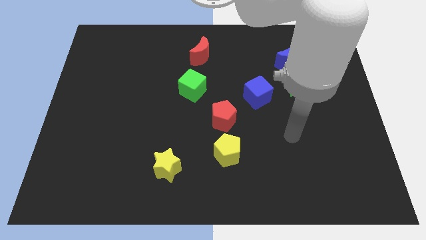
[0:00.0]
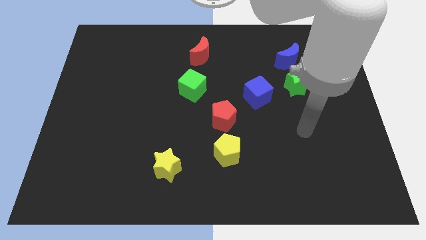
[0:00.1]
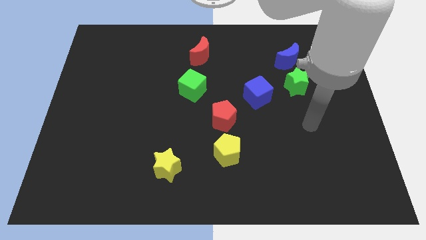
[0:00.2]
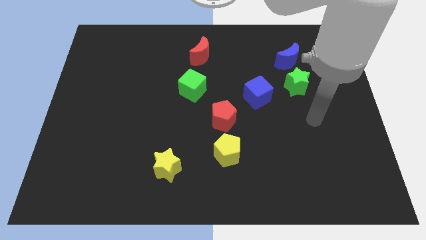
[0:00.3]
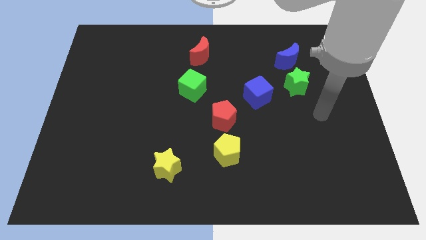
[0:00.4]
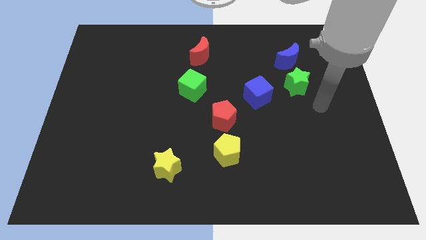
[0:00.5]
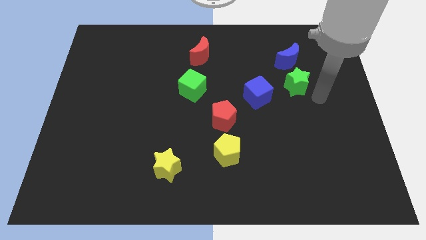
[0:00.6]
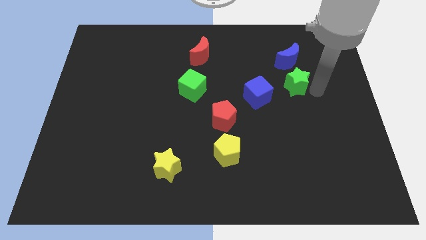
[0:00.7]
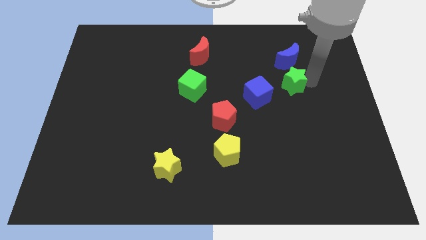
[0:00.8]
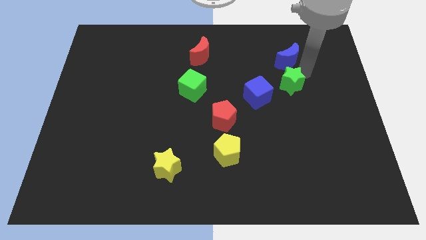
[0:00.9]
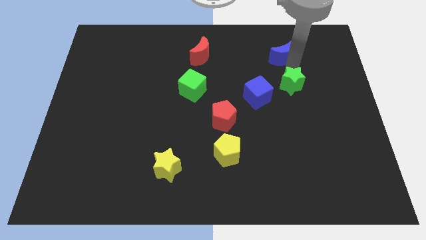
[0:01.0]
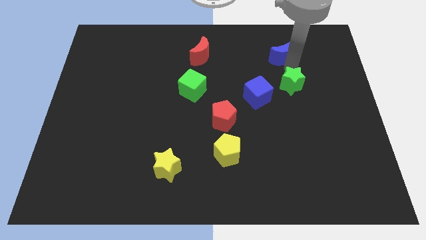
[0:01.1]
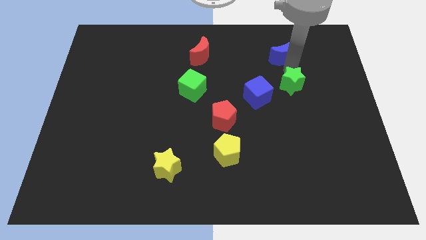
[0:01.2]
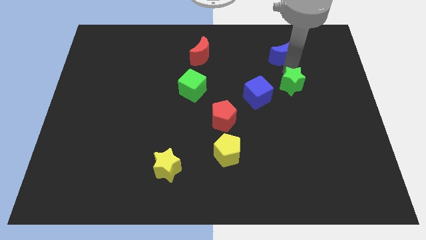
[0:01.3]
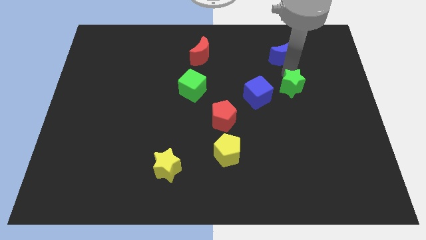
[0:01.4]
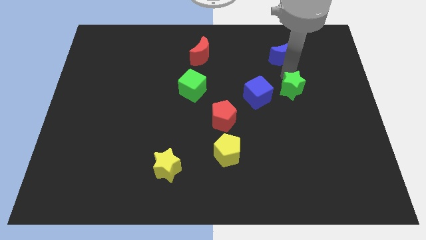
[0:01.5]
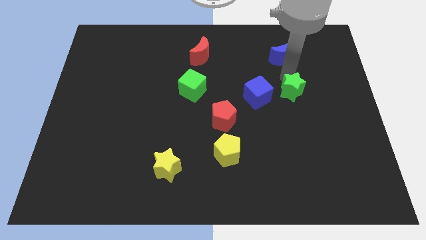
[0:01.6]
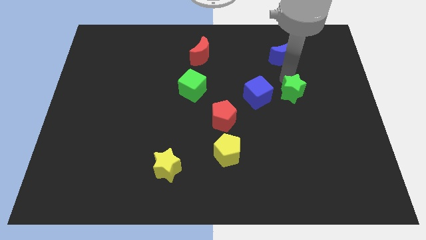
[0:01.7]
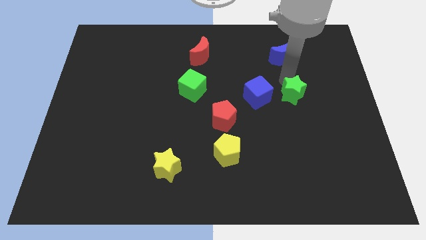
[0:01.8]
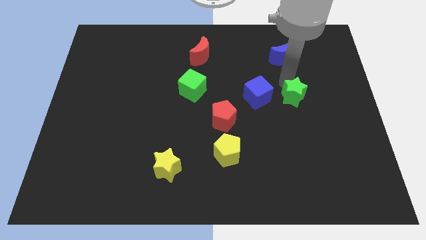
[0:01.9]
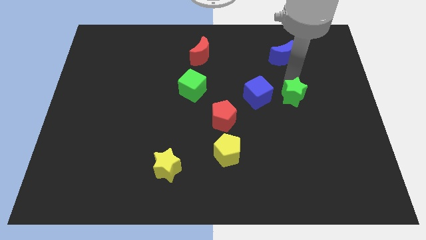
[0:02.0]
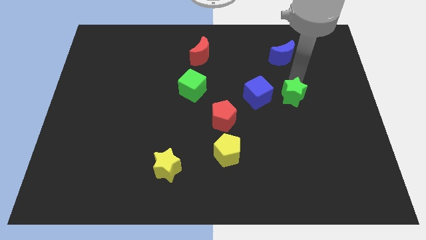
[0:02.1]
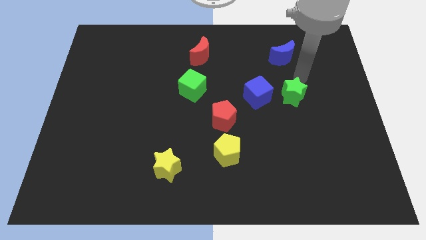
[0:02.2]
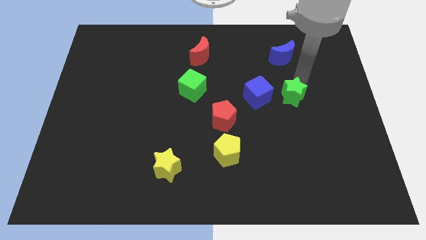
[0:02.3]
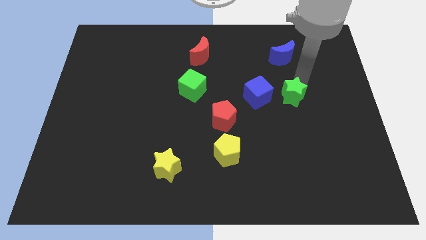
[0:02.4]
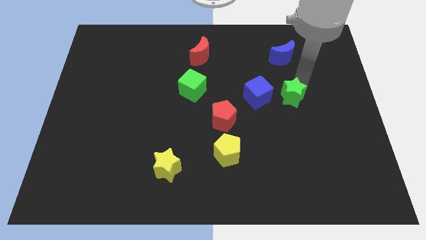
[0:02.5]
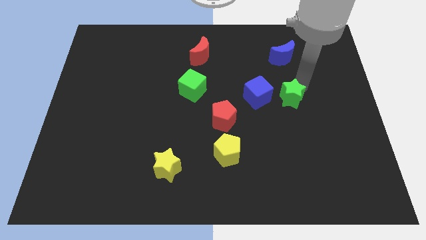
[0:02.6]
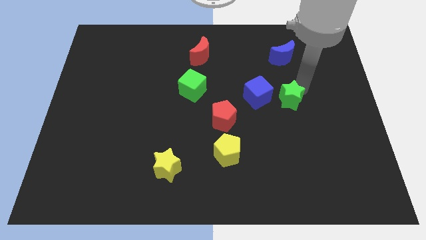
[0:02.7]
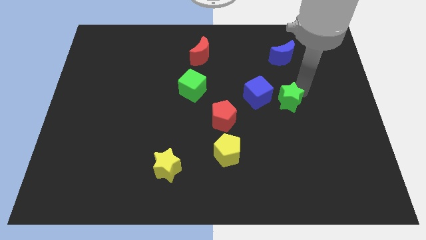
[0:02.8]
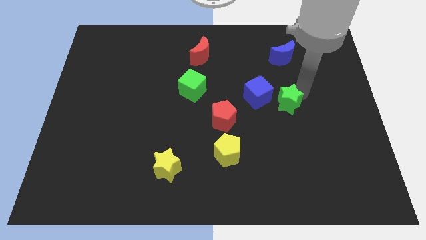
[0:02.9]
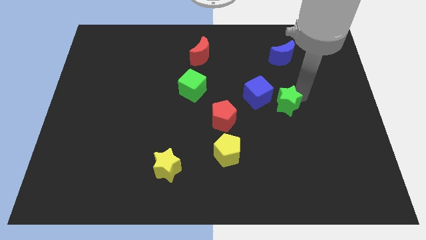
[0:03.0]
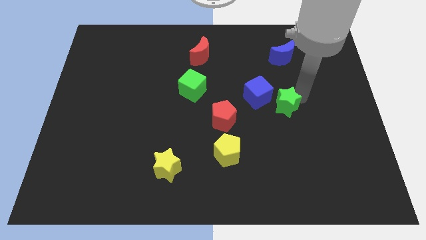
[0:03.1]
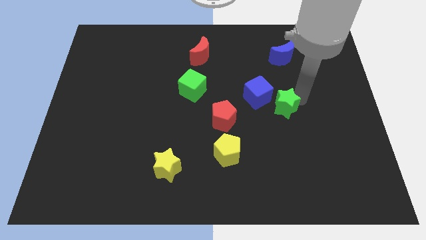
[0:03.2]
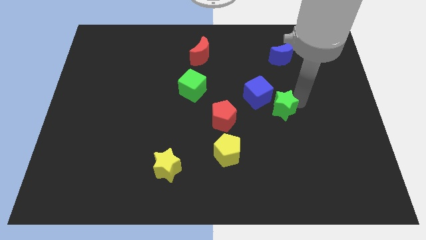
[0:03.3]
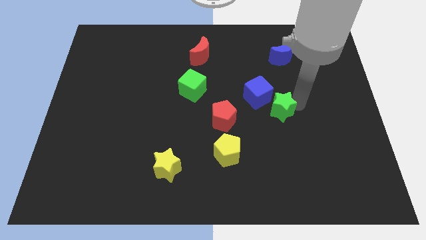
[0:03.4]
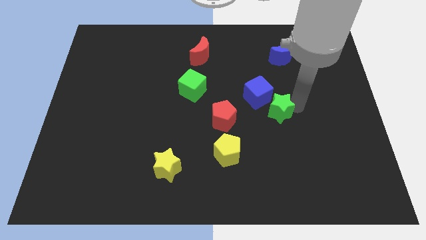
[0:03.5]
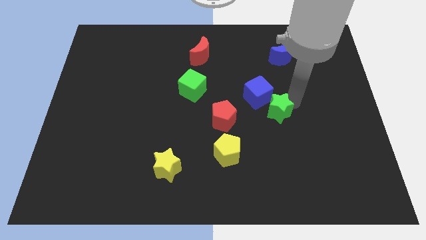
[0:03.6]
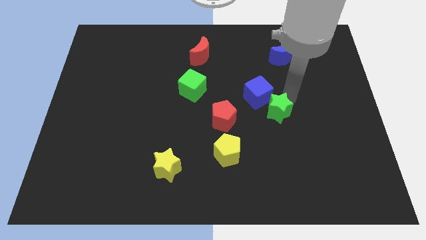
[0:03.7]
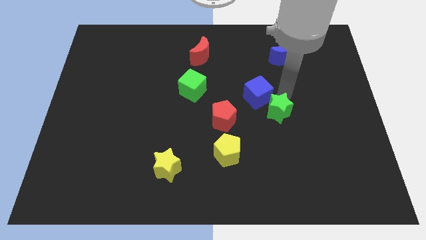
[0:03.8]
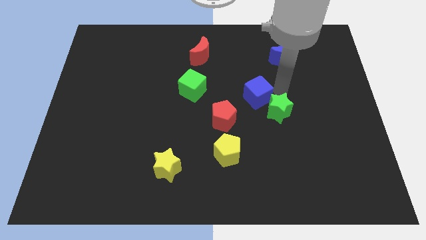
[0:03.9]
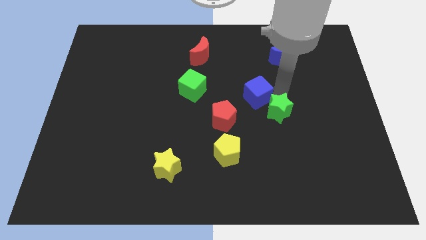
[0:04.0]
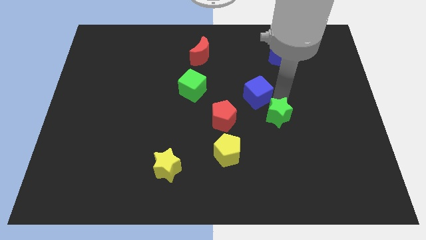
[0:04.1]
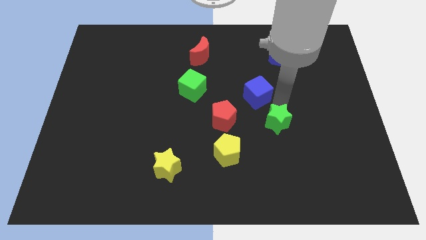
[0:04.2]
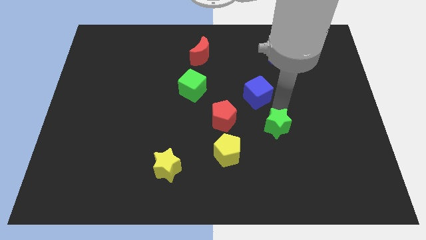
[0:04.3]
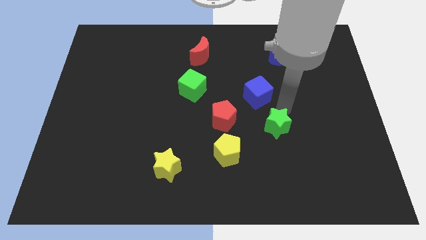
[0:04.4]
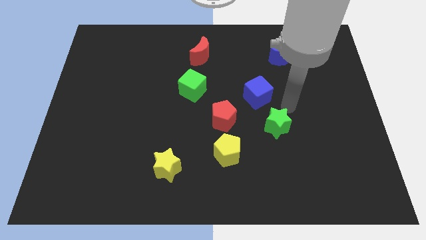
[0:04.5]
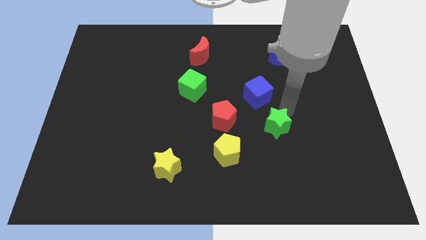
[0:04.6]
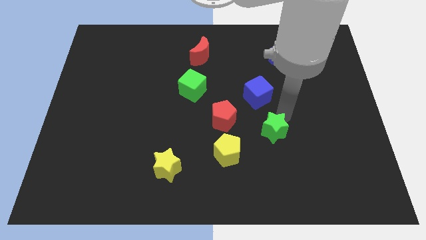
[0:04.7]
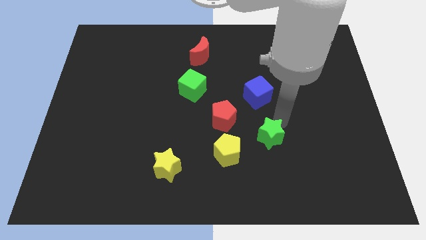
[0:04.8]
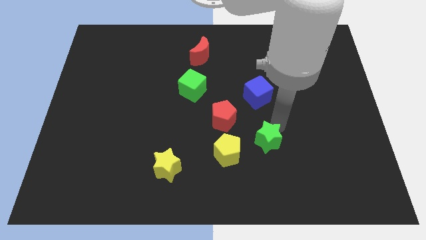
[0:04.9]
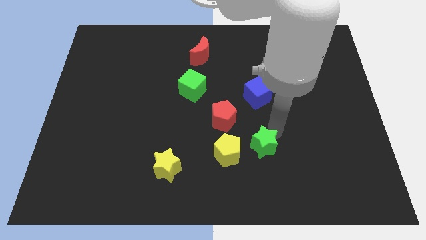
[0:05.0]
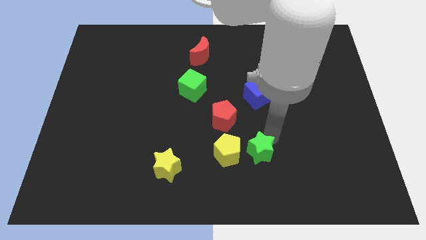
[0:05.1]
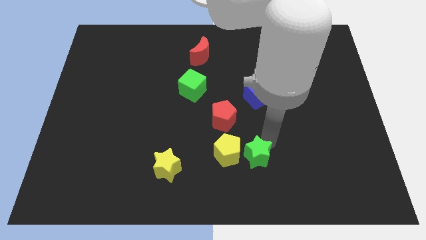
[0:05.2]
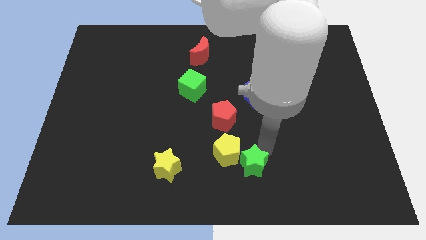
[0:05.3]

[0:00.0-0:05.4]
push the green star to the bottom side

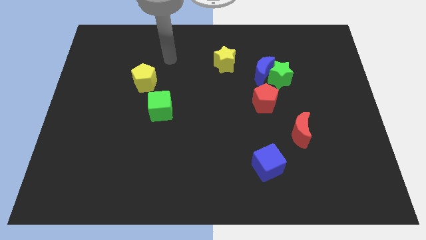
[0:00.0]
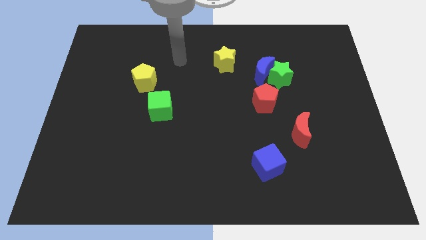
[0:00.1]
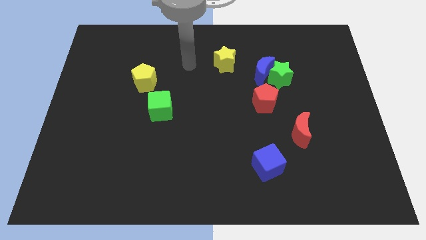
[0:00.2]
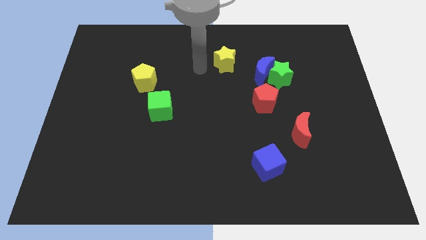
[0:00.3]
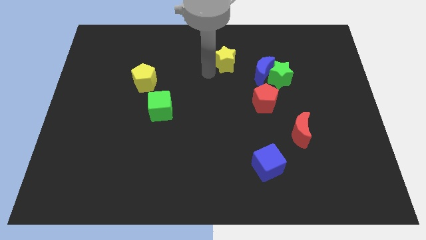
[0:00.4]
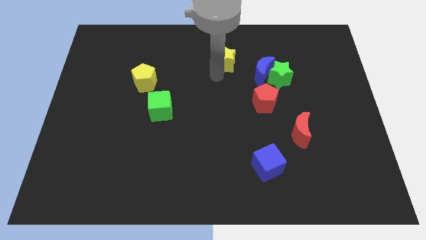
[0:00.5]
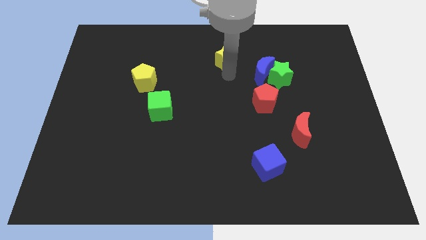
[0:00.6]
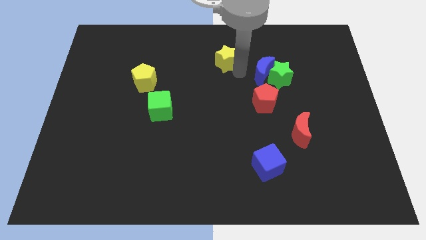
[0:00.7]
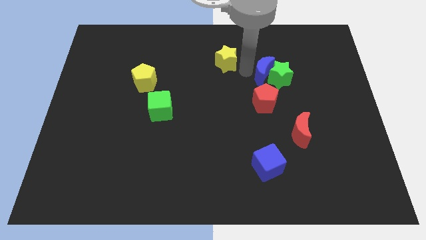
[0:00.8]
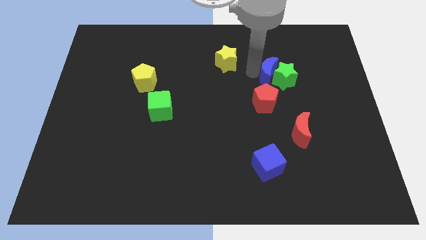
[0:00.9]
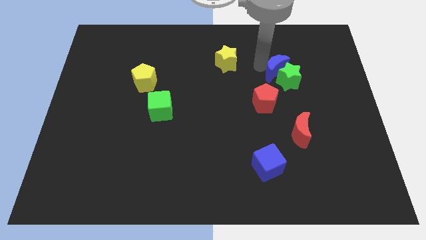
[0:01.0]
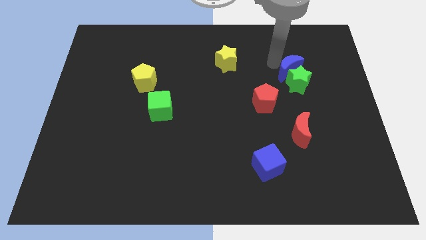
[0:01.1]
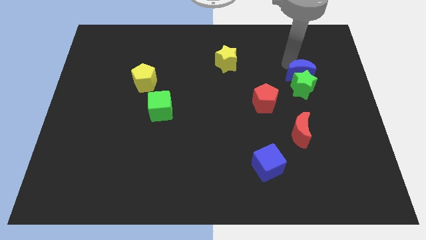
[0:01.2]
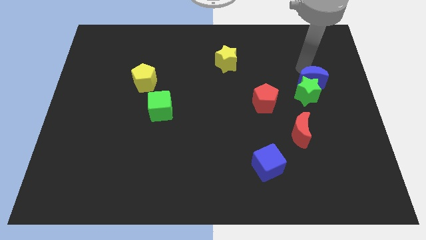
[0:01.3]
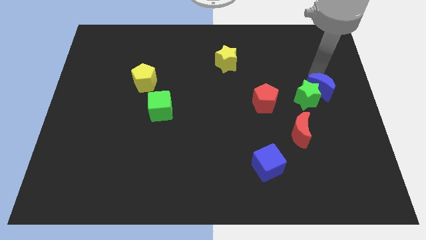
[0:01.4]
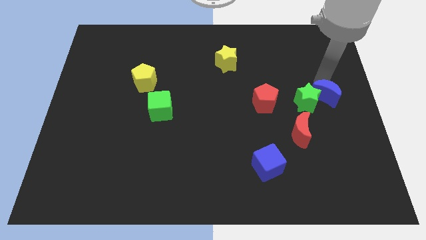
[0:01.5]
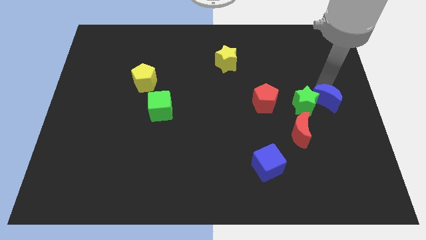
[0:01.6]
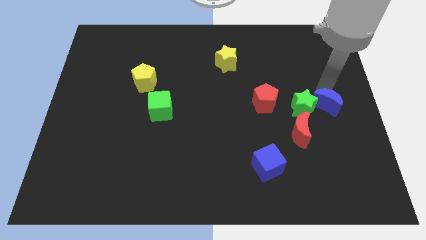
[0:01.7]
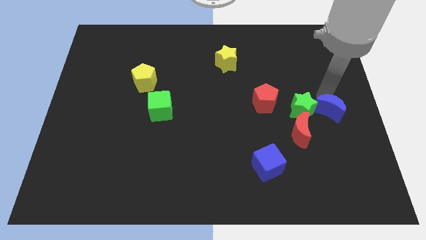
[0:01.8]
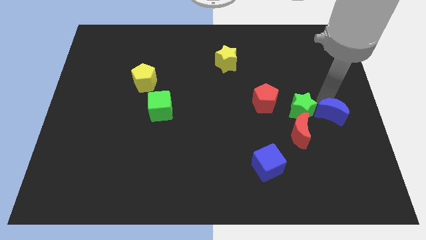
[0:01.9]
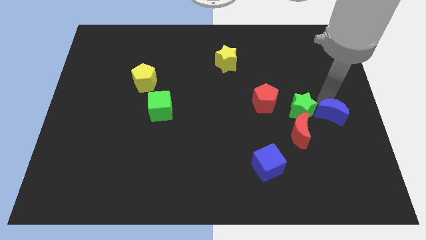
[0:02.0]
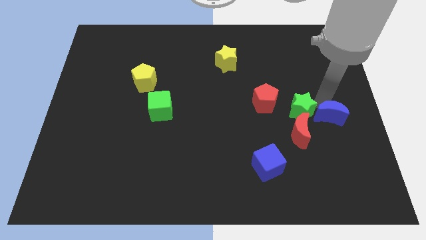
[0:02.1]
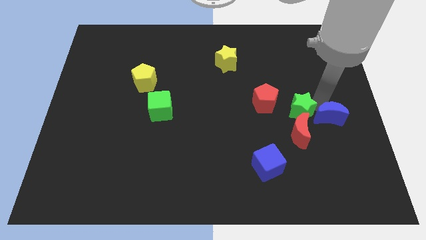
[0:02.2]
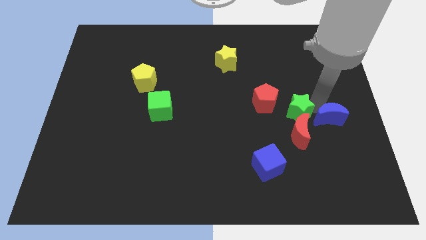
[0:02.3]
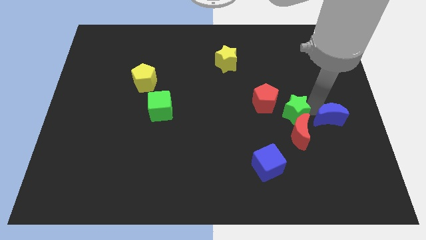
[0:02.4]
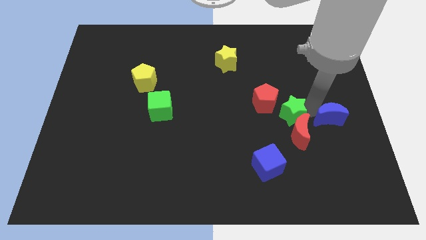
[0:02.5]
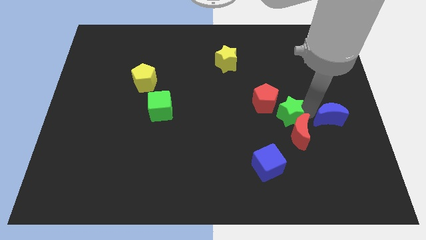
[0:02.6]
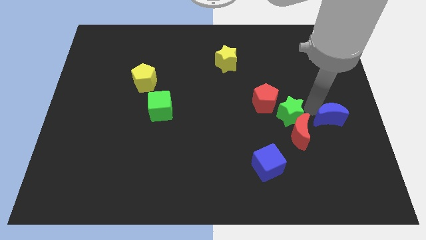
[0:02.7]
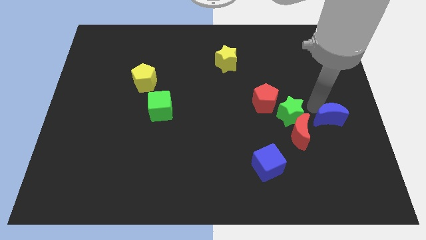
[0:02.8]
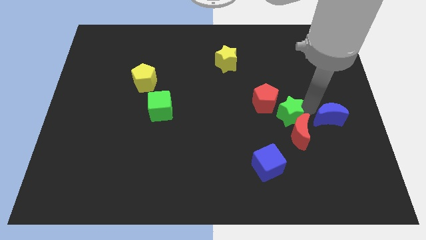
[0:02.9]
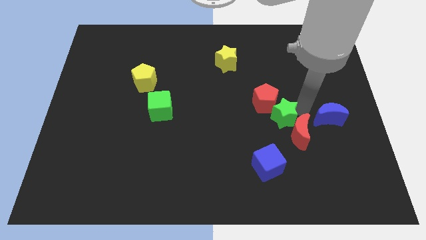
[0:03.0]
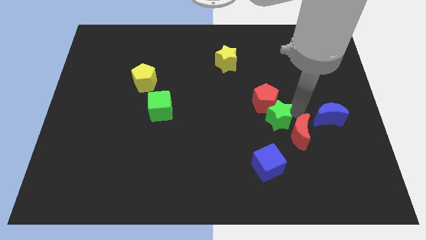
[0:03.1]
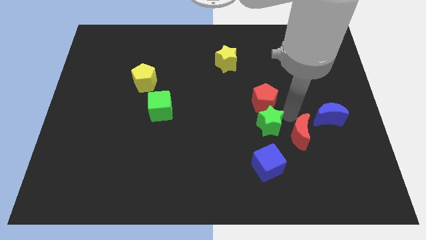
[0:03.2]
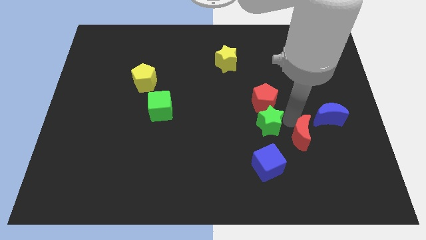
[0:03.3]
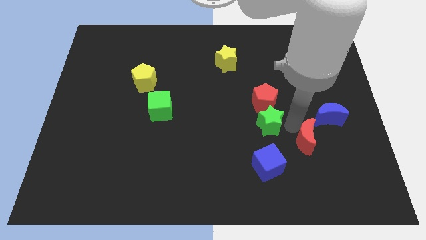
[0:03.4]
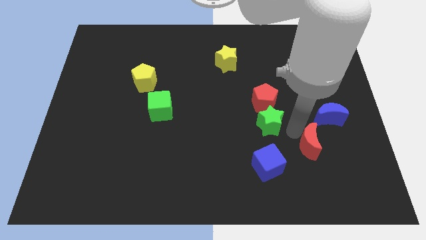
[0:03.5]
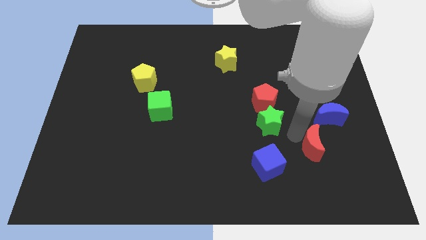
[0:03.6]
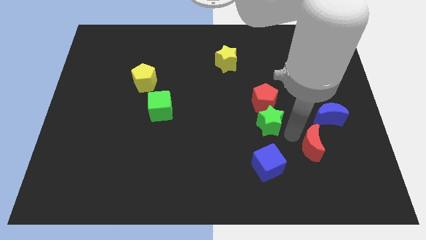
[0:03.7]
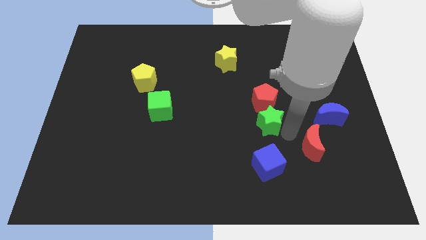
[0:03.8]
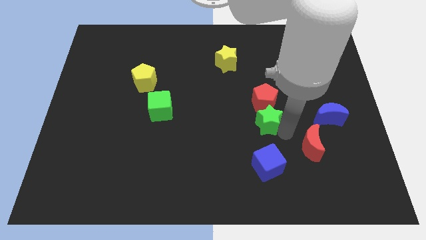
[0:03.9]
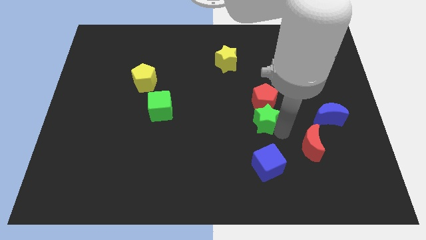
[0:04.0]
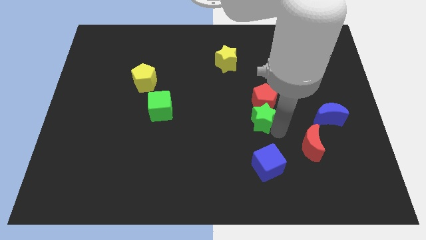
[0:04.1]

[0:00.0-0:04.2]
push the green star to the center
